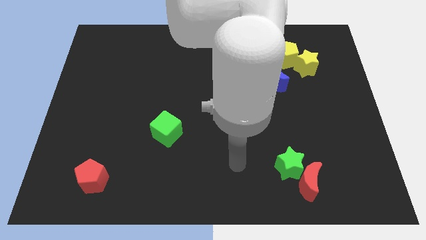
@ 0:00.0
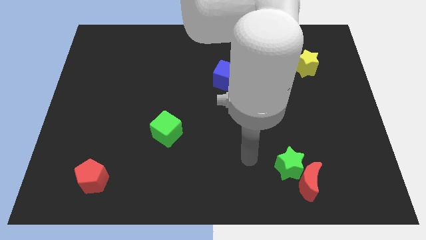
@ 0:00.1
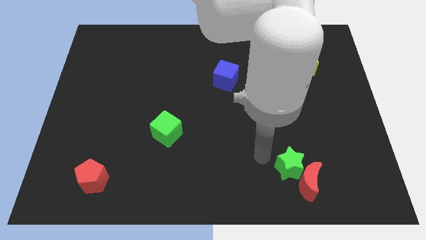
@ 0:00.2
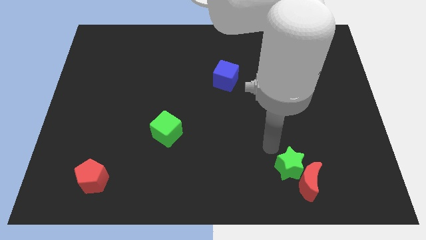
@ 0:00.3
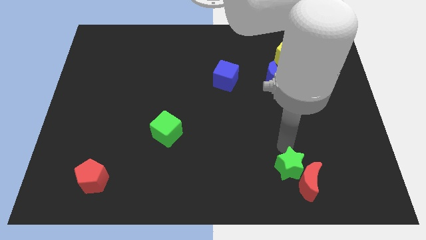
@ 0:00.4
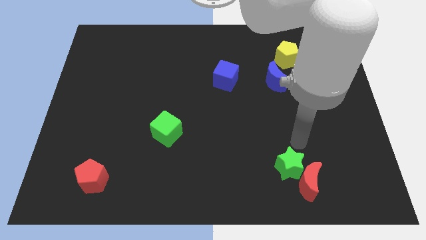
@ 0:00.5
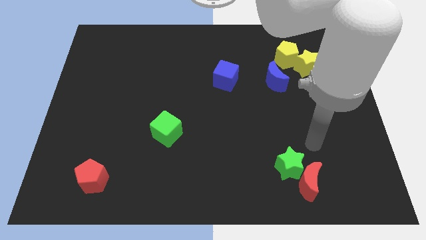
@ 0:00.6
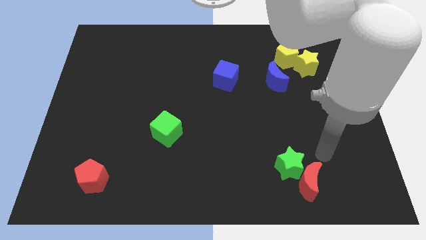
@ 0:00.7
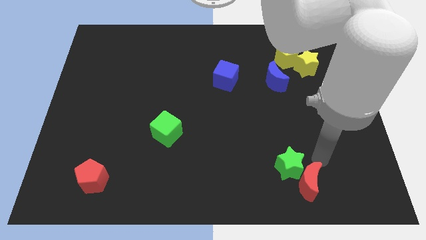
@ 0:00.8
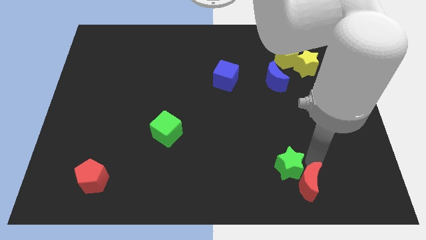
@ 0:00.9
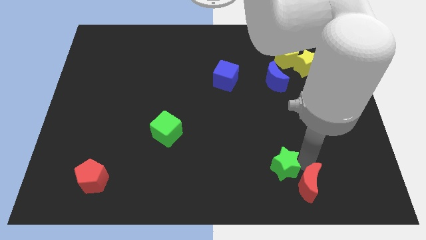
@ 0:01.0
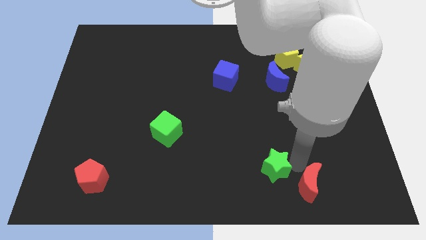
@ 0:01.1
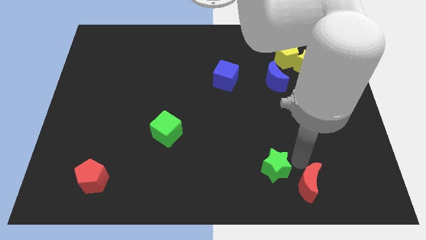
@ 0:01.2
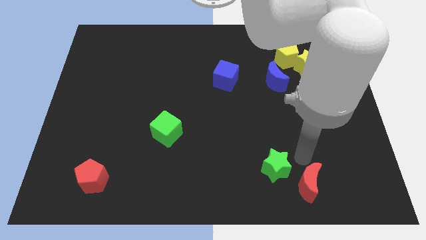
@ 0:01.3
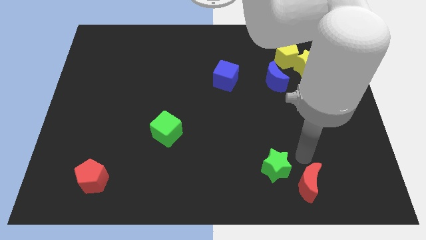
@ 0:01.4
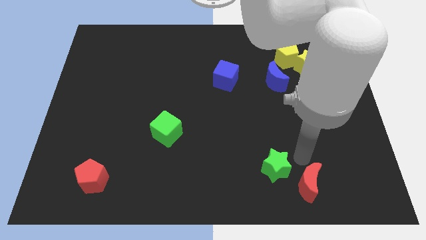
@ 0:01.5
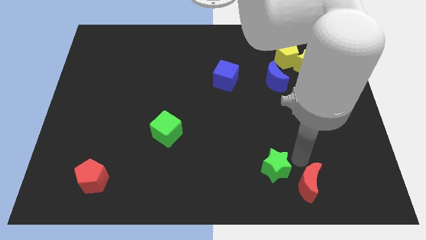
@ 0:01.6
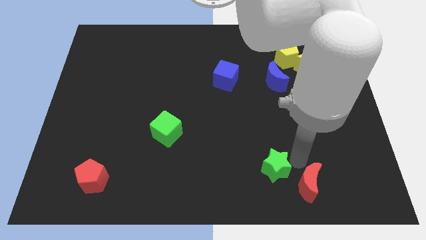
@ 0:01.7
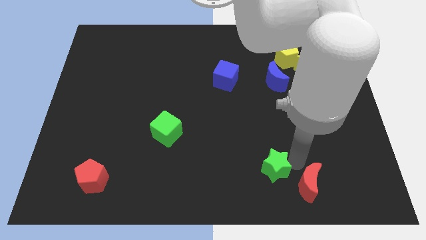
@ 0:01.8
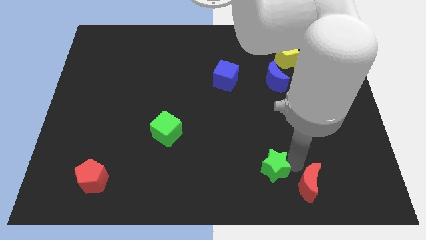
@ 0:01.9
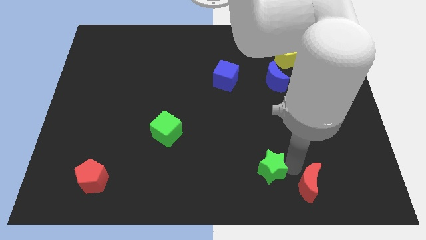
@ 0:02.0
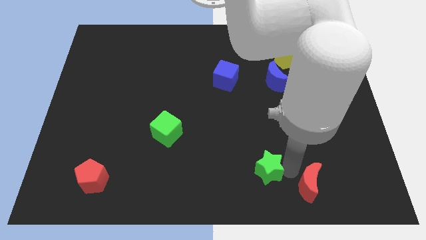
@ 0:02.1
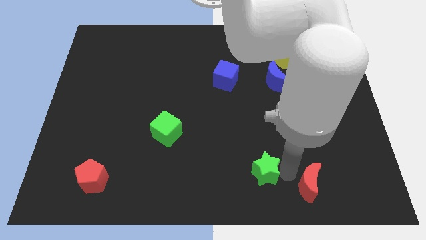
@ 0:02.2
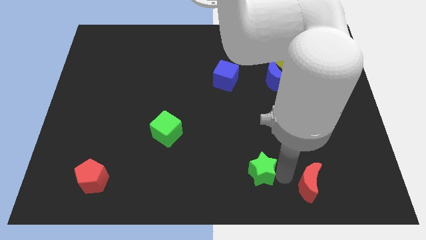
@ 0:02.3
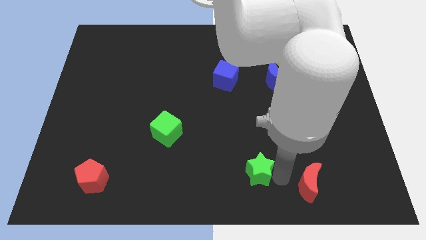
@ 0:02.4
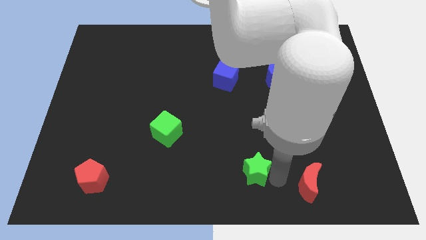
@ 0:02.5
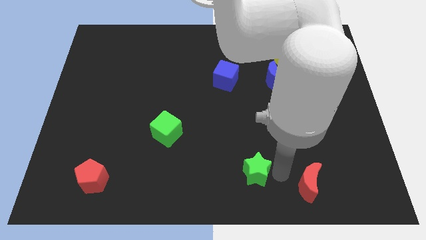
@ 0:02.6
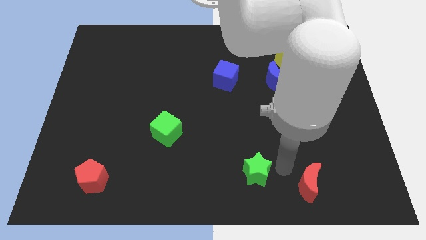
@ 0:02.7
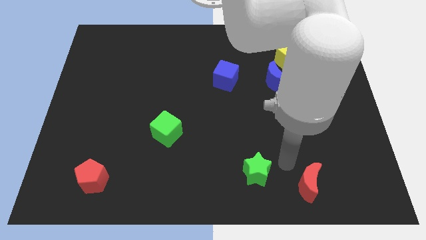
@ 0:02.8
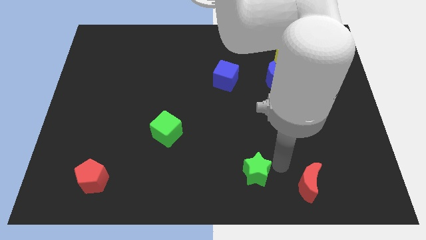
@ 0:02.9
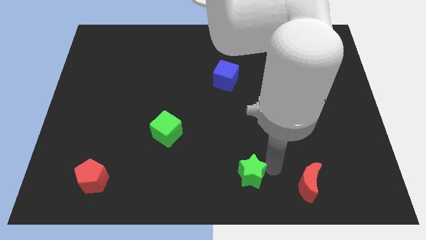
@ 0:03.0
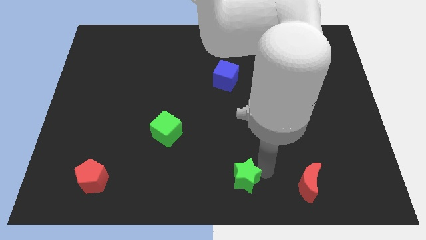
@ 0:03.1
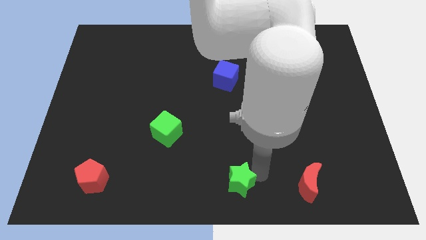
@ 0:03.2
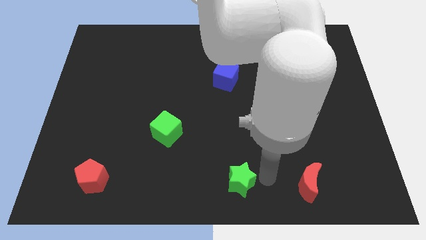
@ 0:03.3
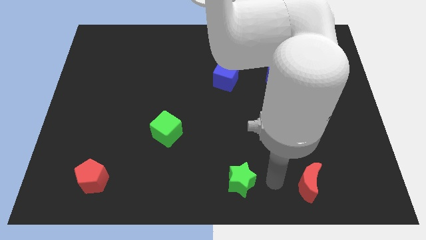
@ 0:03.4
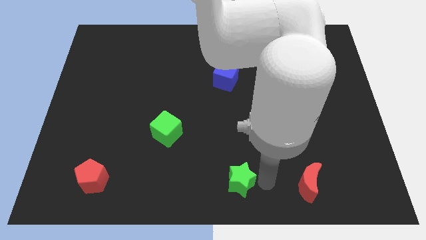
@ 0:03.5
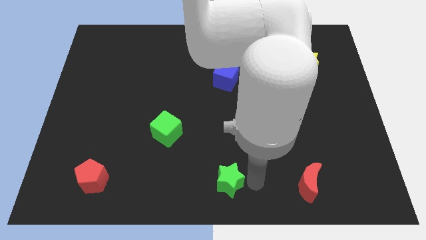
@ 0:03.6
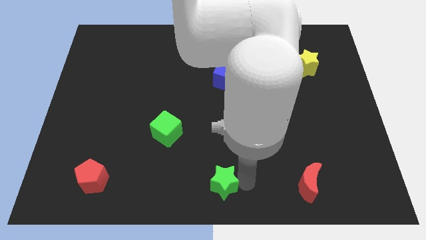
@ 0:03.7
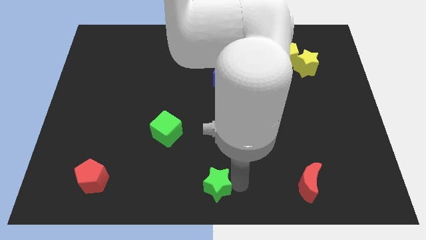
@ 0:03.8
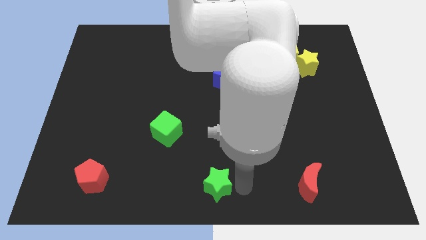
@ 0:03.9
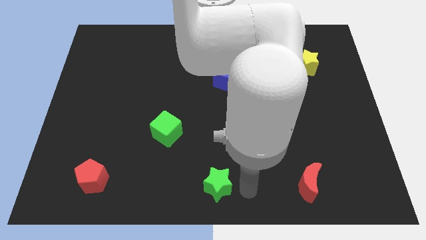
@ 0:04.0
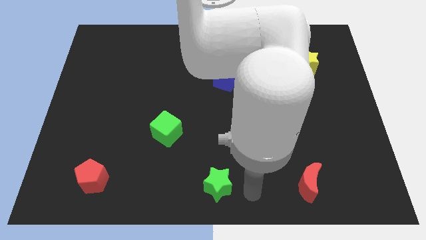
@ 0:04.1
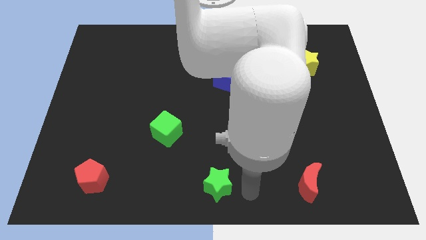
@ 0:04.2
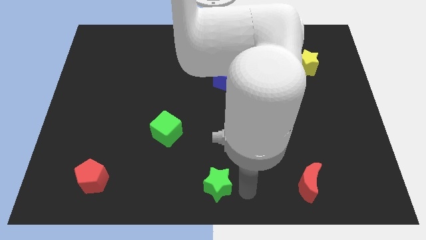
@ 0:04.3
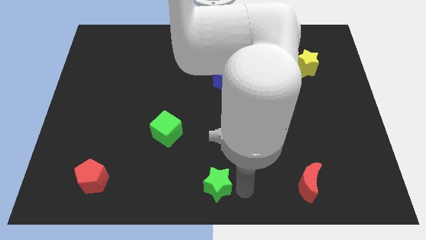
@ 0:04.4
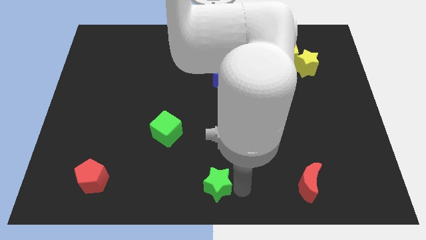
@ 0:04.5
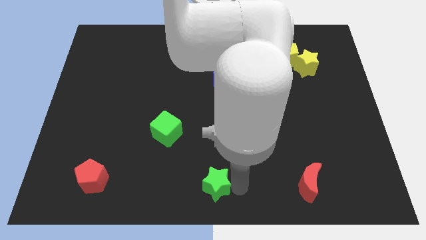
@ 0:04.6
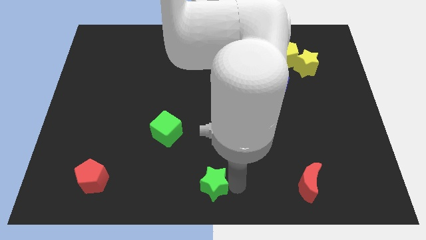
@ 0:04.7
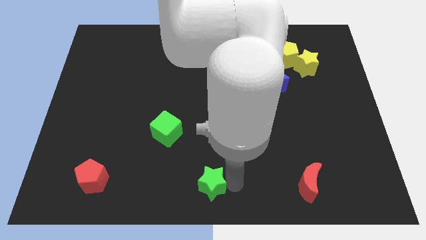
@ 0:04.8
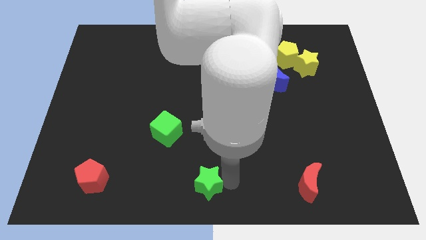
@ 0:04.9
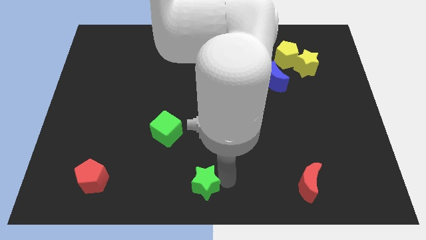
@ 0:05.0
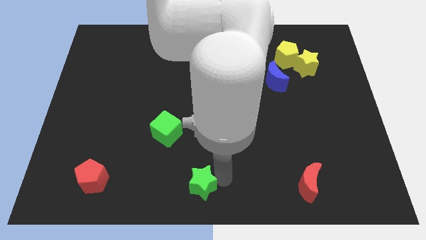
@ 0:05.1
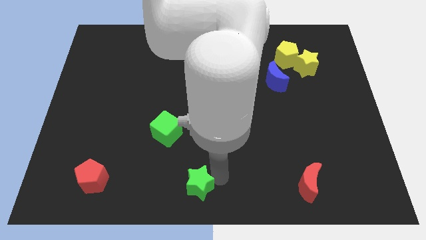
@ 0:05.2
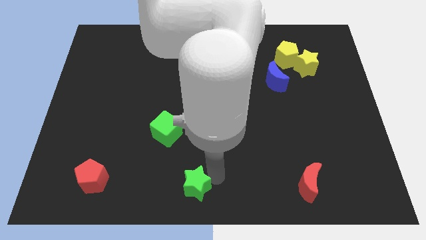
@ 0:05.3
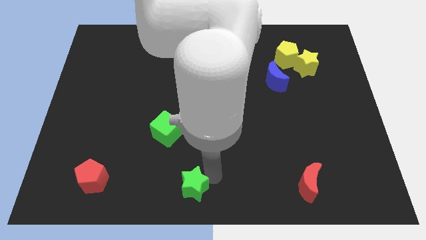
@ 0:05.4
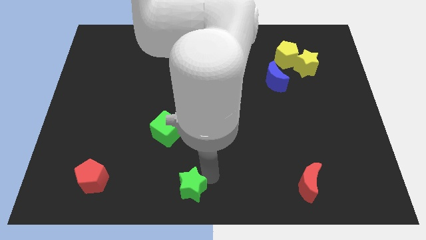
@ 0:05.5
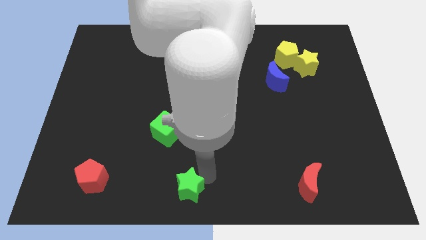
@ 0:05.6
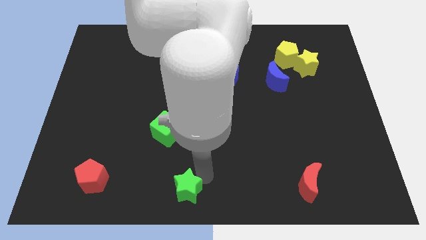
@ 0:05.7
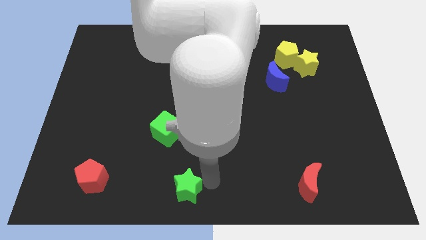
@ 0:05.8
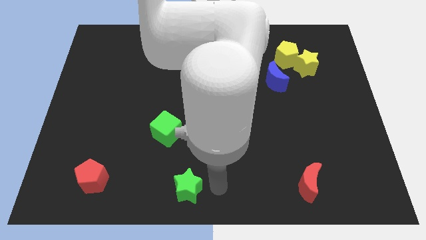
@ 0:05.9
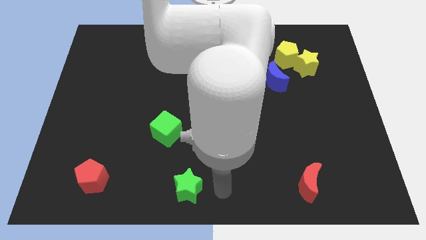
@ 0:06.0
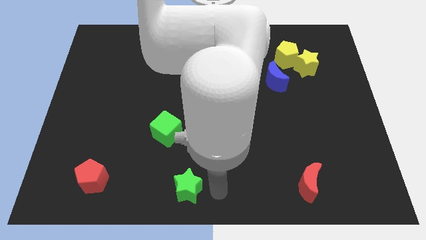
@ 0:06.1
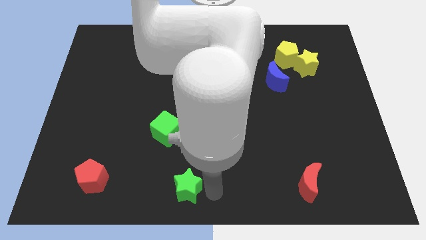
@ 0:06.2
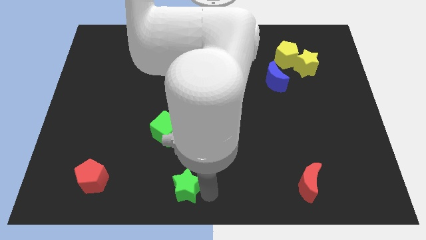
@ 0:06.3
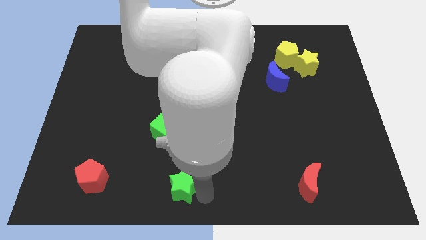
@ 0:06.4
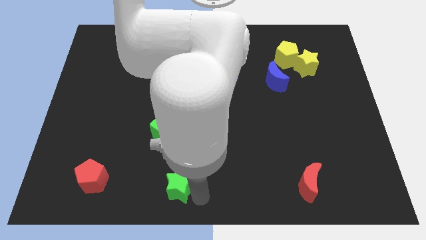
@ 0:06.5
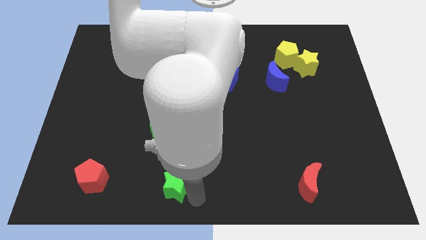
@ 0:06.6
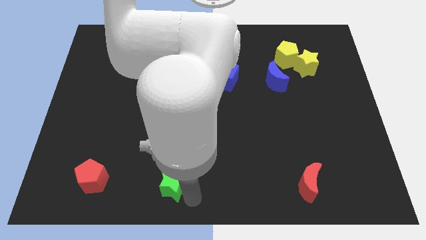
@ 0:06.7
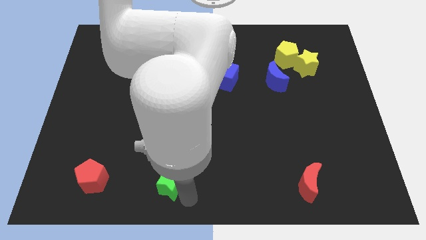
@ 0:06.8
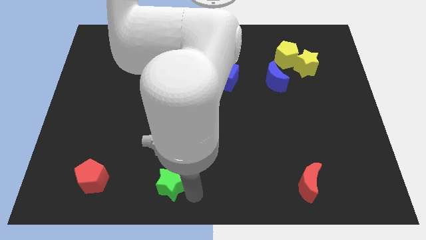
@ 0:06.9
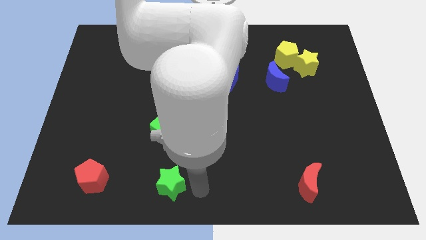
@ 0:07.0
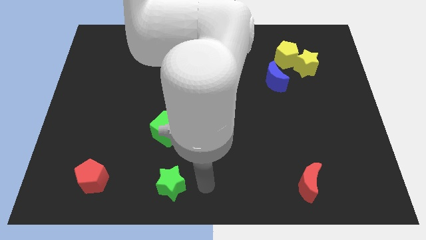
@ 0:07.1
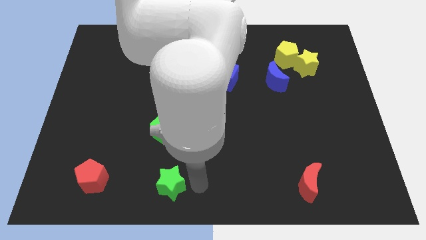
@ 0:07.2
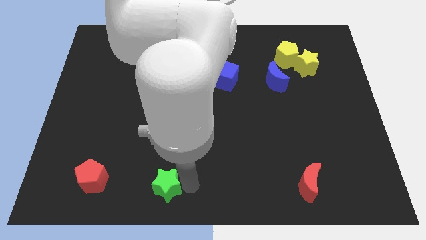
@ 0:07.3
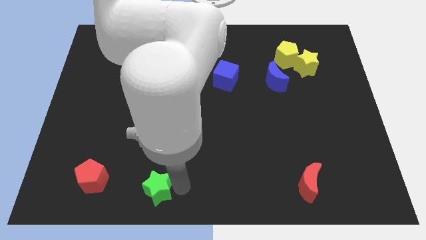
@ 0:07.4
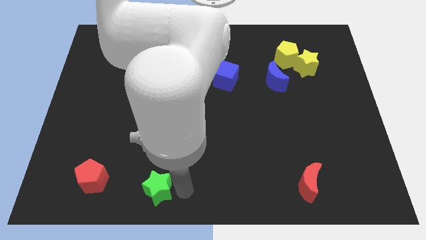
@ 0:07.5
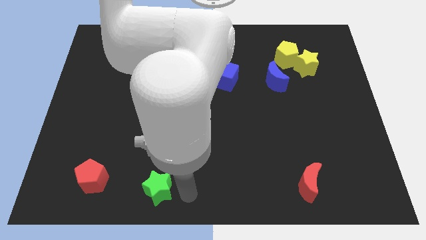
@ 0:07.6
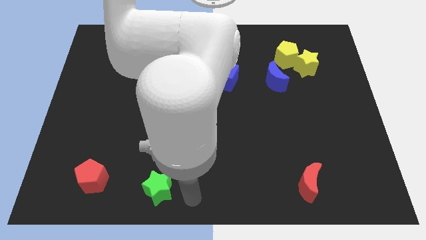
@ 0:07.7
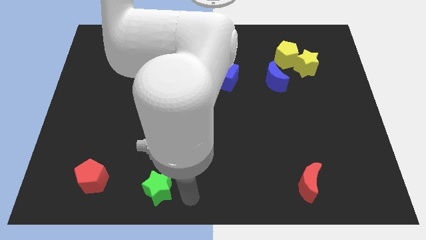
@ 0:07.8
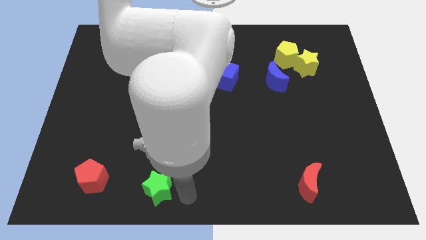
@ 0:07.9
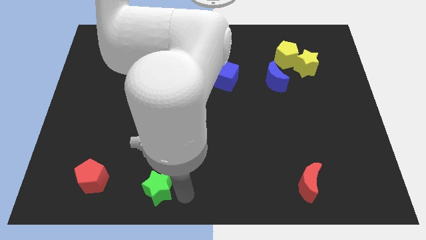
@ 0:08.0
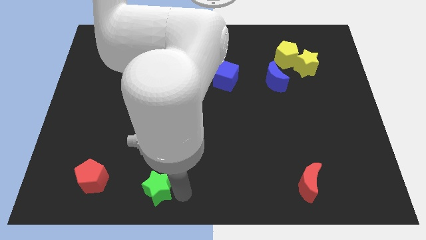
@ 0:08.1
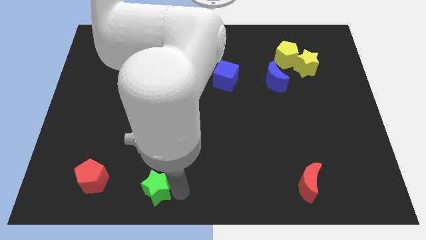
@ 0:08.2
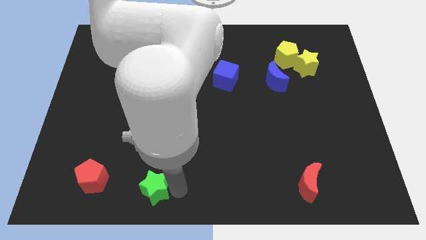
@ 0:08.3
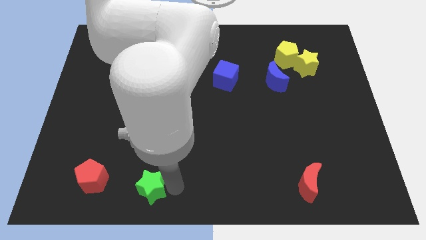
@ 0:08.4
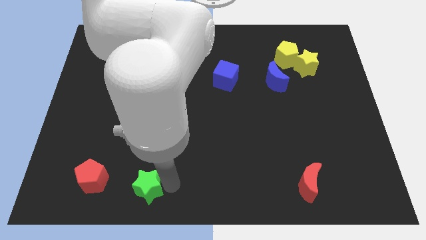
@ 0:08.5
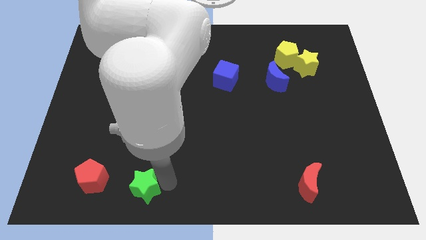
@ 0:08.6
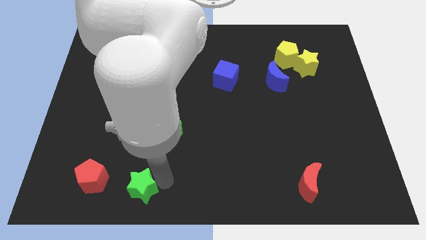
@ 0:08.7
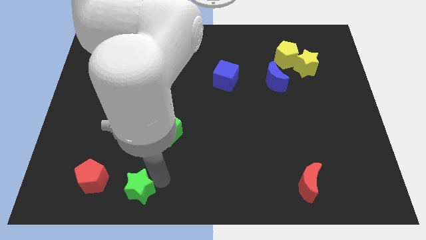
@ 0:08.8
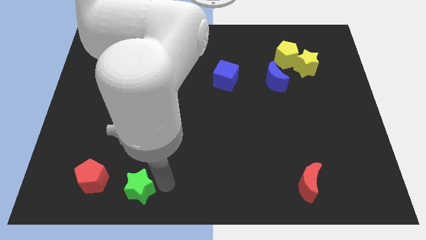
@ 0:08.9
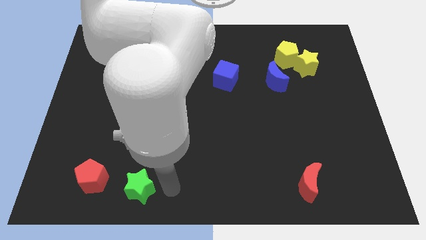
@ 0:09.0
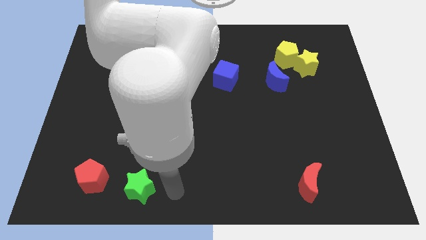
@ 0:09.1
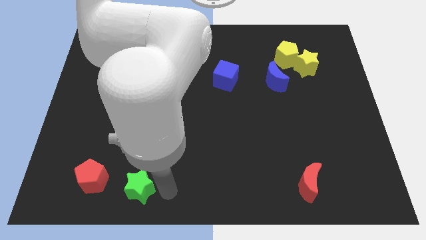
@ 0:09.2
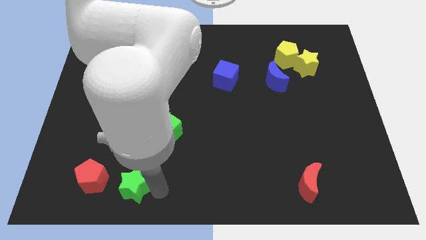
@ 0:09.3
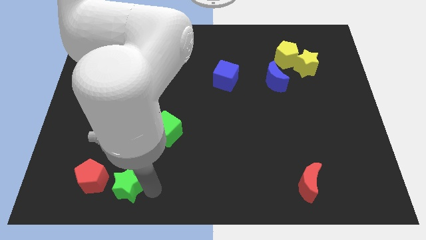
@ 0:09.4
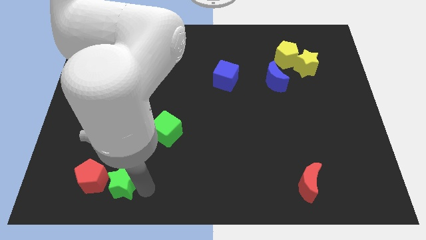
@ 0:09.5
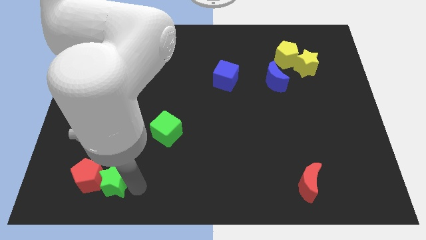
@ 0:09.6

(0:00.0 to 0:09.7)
move the green star to the red pentagon
